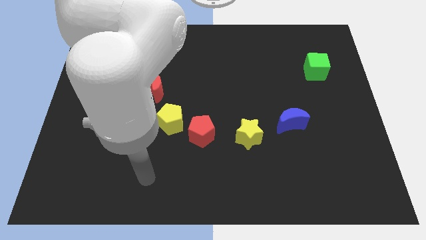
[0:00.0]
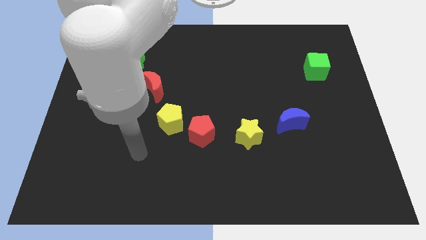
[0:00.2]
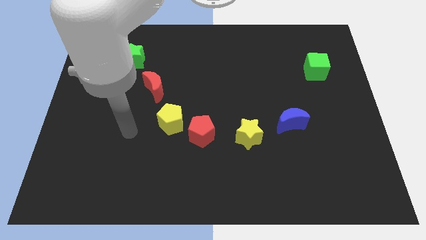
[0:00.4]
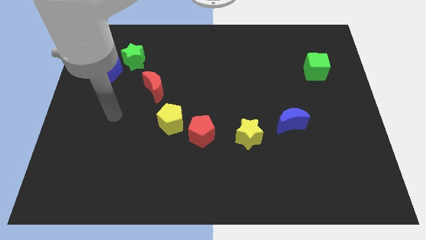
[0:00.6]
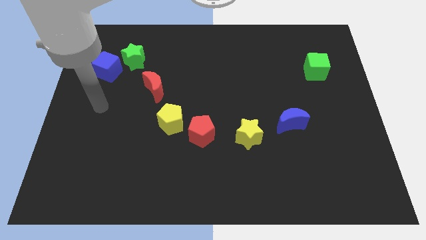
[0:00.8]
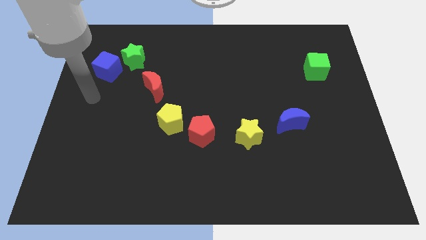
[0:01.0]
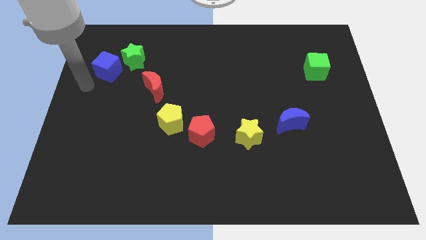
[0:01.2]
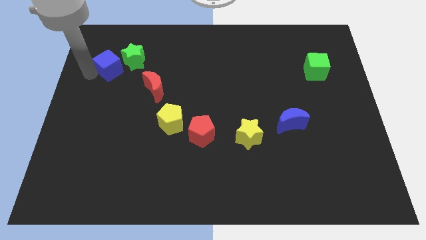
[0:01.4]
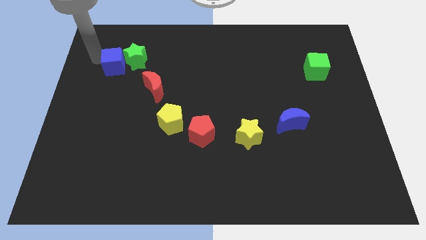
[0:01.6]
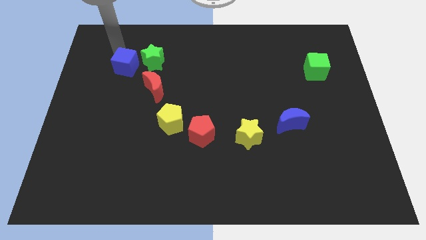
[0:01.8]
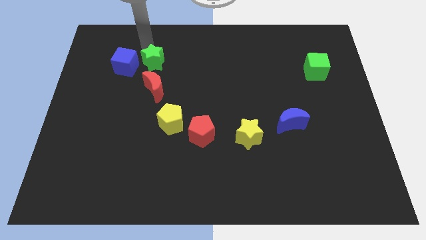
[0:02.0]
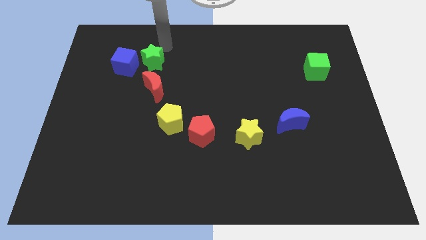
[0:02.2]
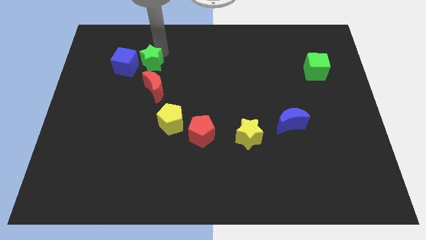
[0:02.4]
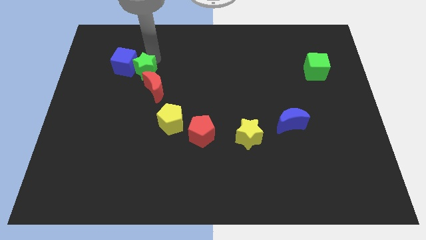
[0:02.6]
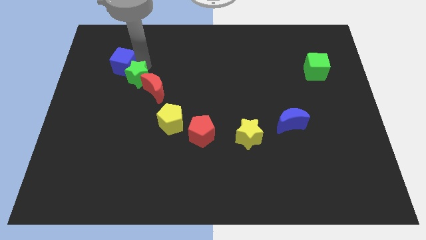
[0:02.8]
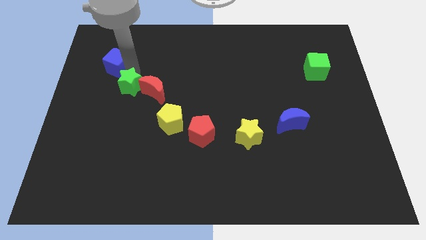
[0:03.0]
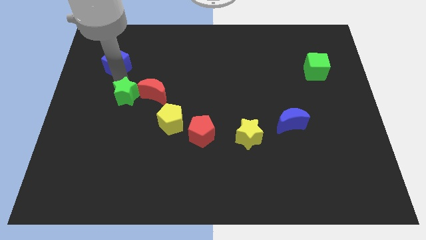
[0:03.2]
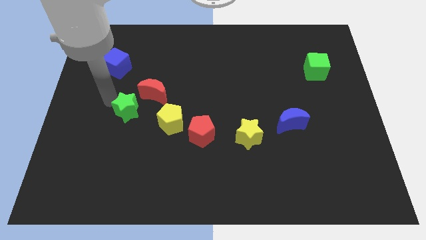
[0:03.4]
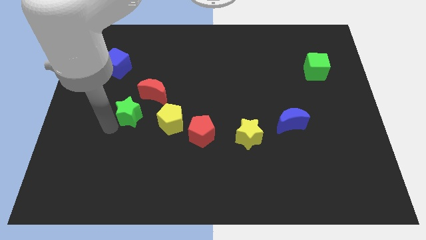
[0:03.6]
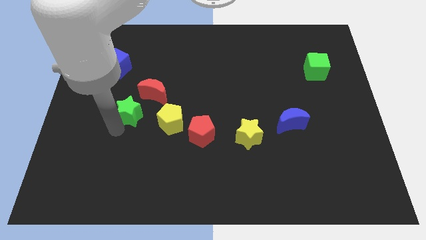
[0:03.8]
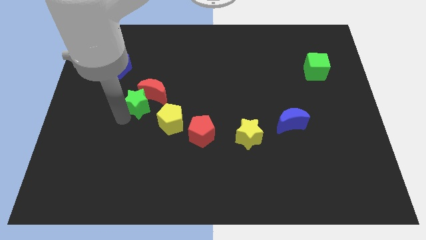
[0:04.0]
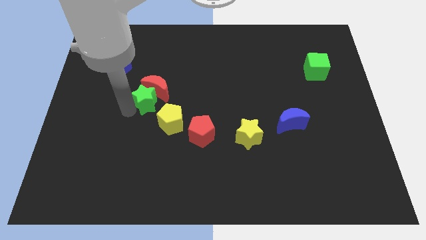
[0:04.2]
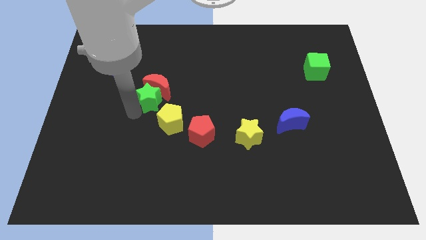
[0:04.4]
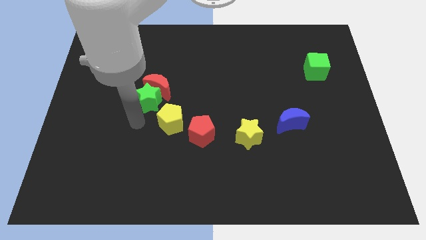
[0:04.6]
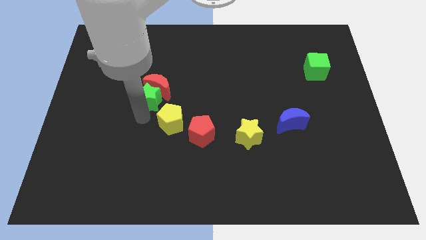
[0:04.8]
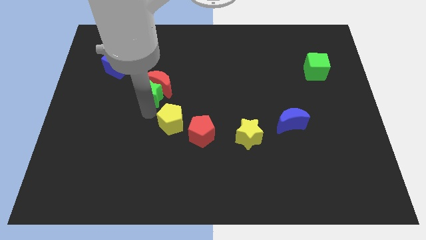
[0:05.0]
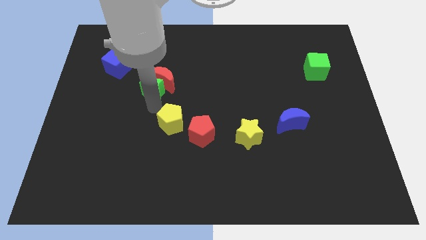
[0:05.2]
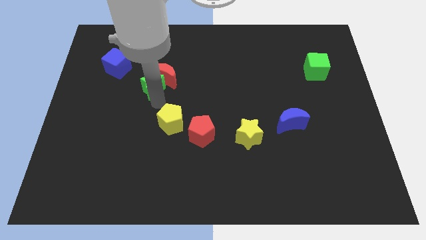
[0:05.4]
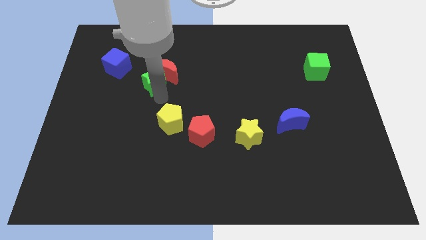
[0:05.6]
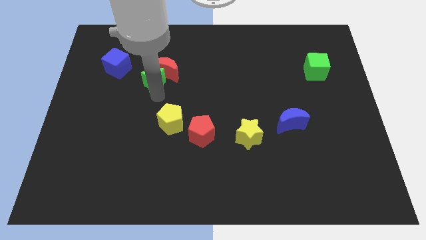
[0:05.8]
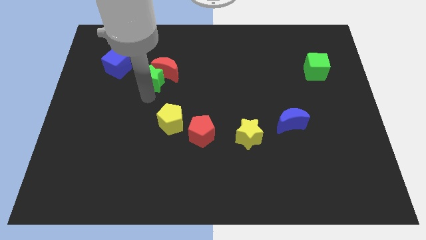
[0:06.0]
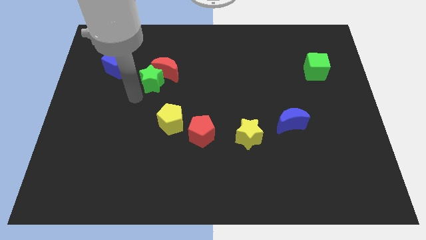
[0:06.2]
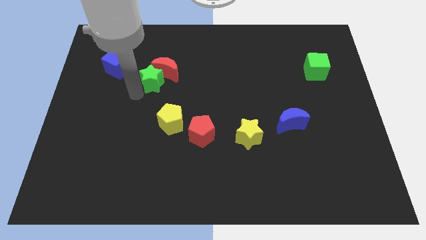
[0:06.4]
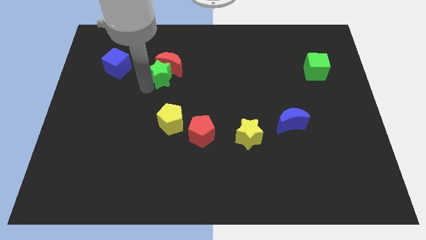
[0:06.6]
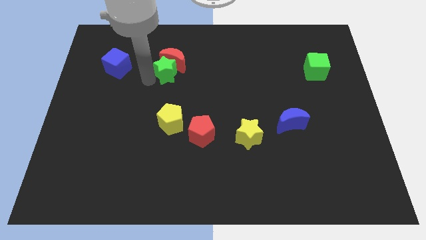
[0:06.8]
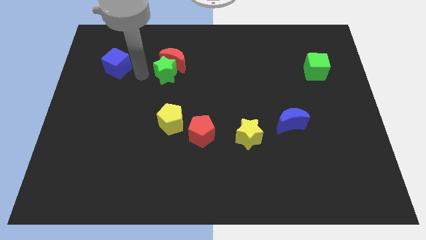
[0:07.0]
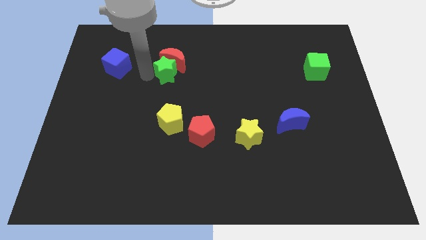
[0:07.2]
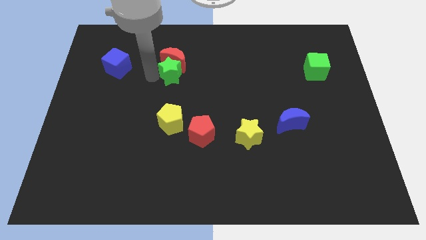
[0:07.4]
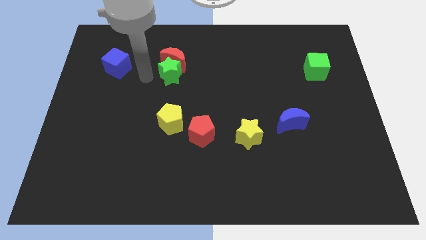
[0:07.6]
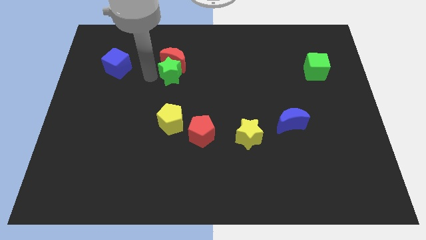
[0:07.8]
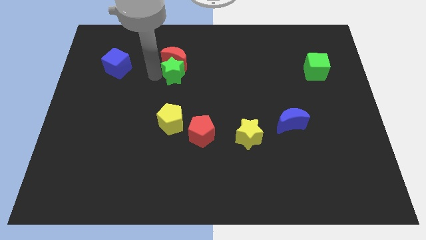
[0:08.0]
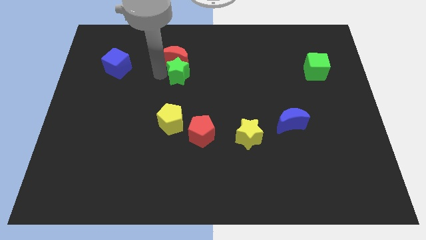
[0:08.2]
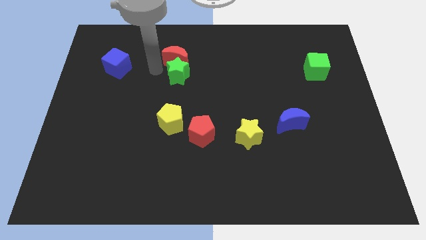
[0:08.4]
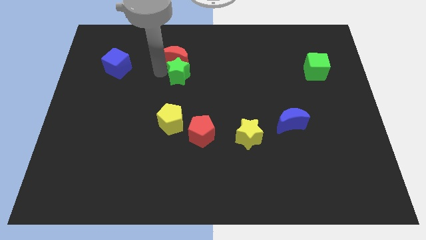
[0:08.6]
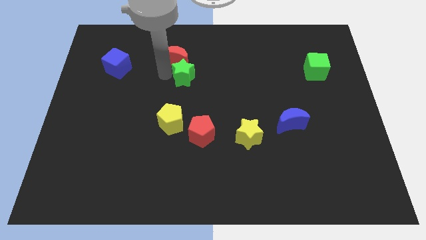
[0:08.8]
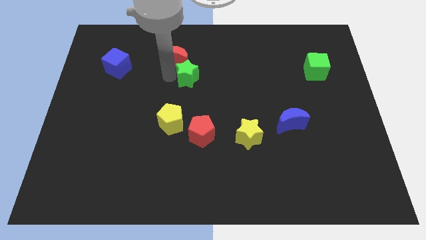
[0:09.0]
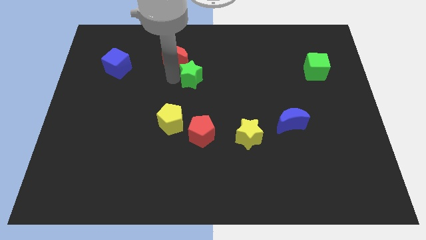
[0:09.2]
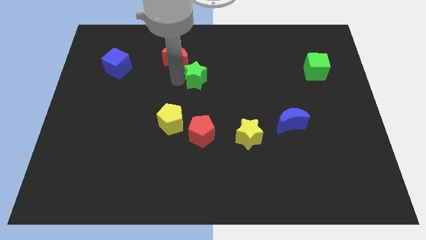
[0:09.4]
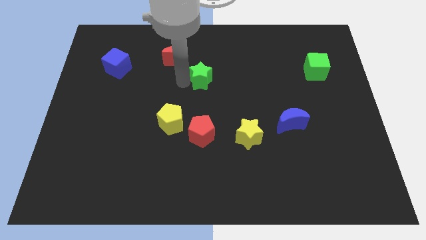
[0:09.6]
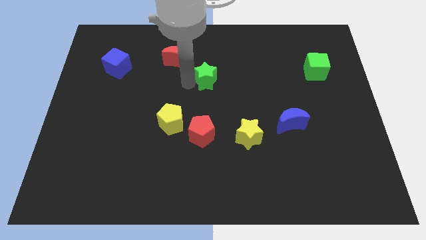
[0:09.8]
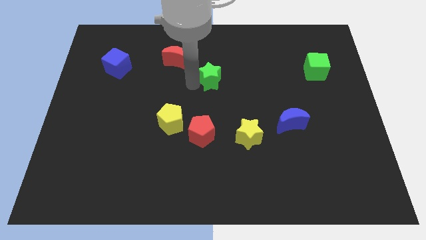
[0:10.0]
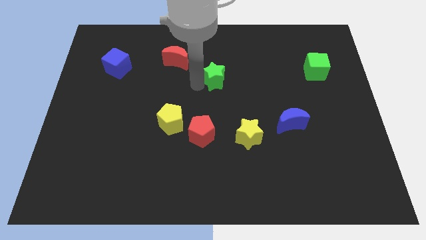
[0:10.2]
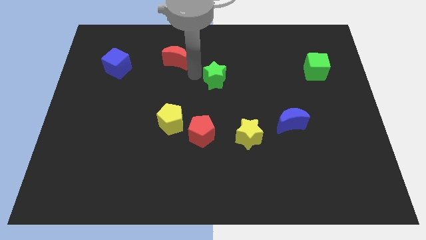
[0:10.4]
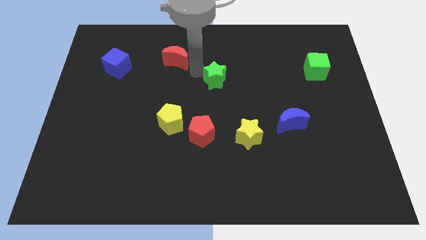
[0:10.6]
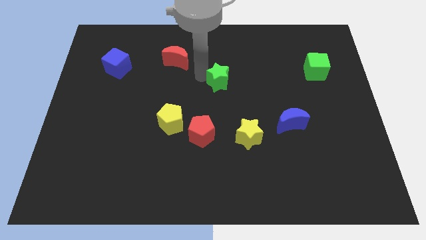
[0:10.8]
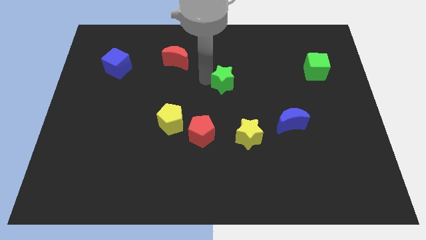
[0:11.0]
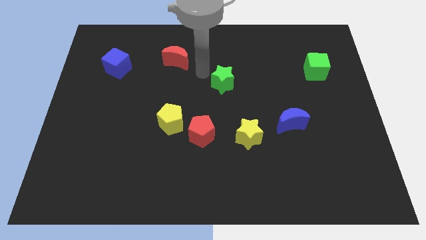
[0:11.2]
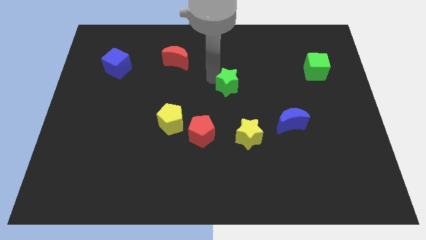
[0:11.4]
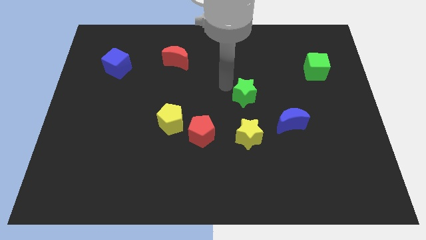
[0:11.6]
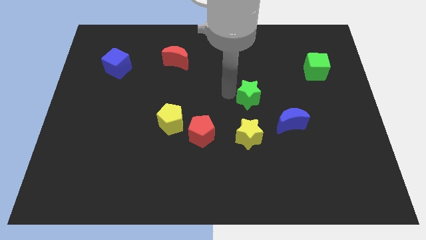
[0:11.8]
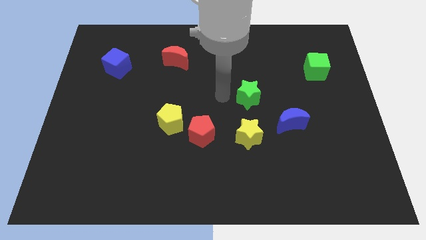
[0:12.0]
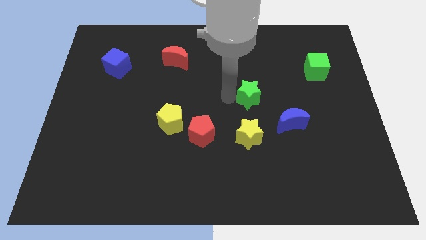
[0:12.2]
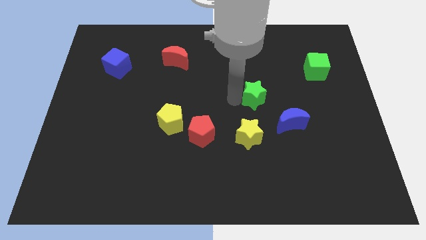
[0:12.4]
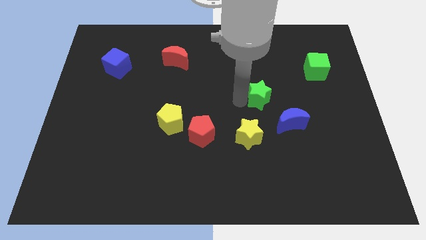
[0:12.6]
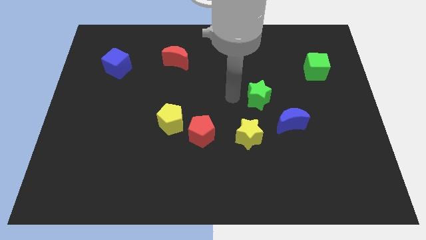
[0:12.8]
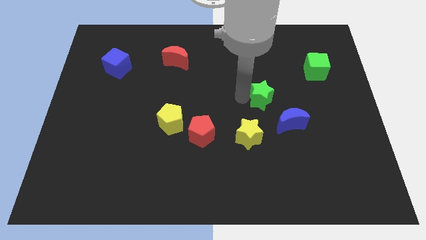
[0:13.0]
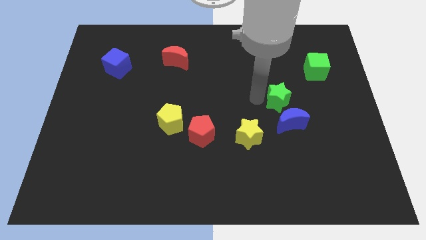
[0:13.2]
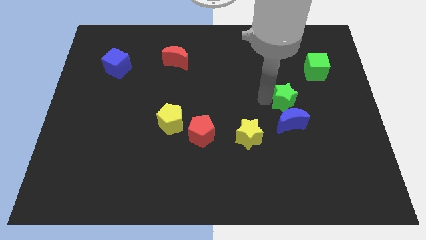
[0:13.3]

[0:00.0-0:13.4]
move the green star to the top right side of the blue moon
